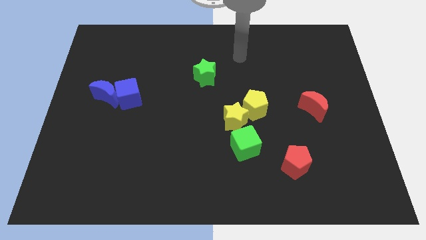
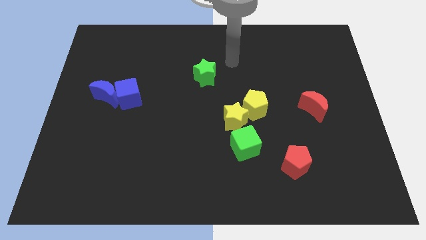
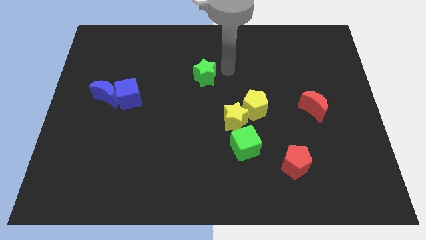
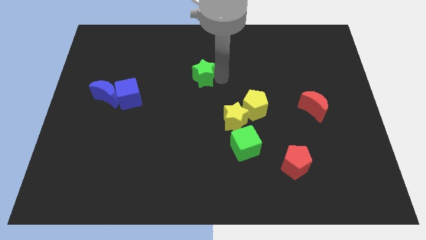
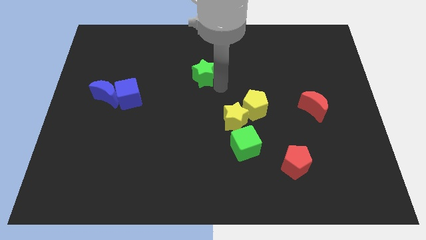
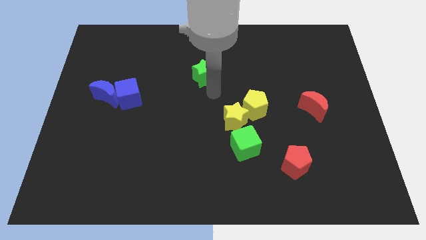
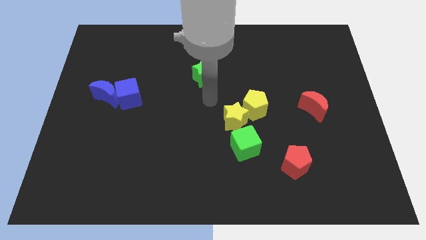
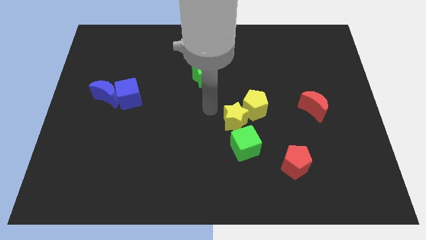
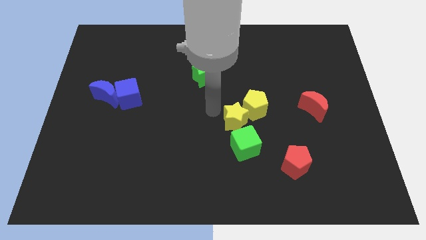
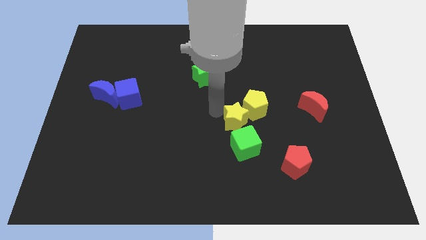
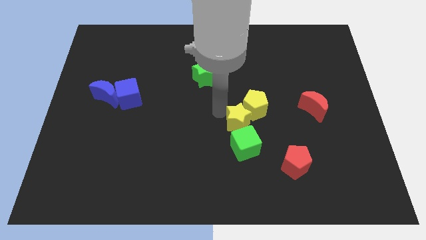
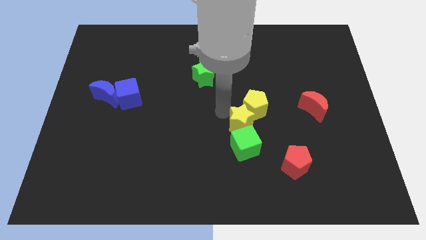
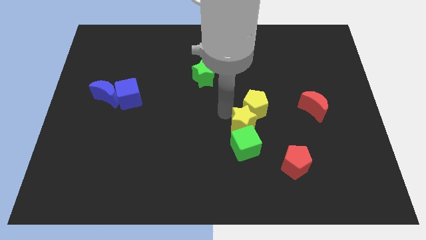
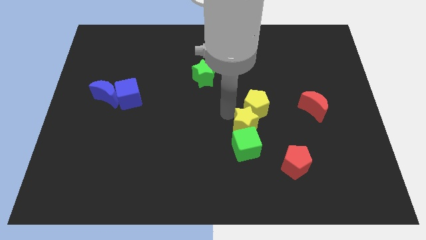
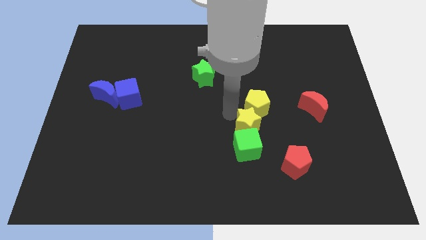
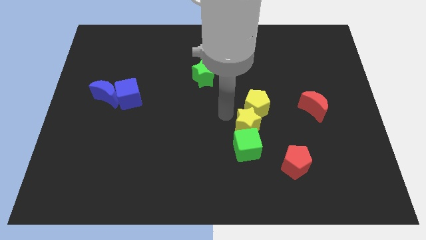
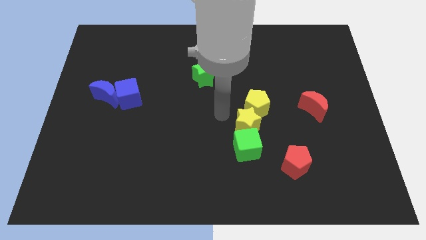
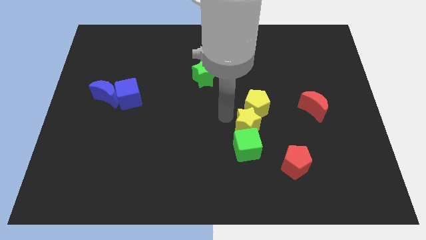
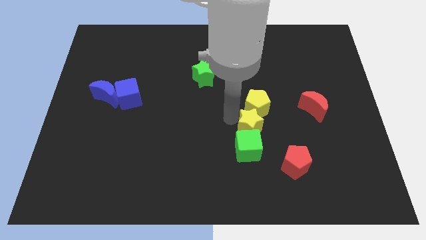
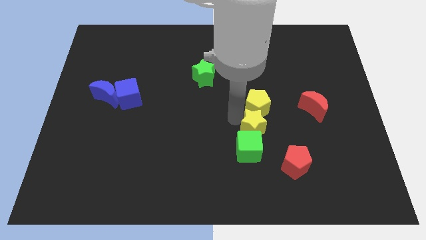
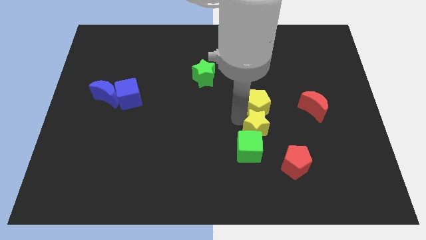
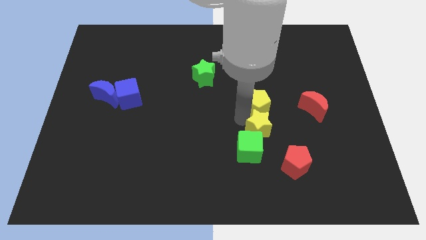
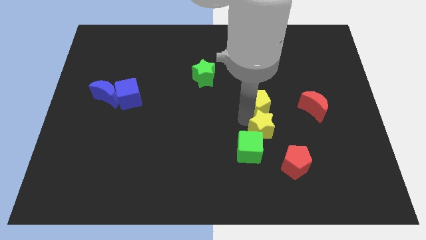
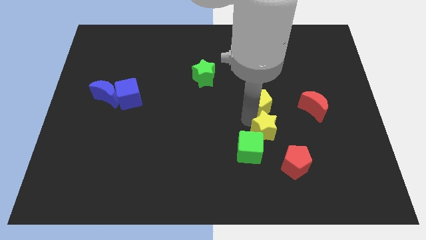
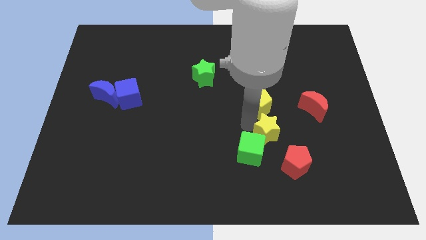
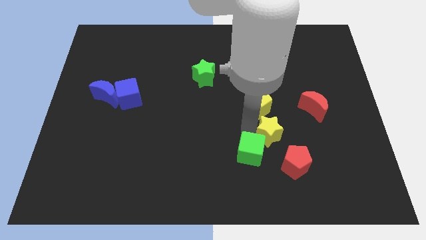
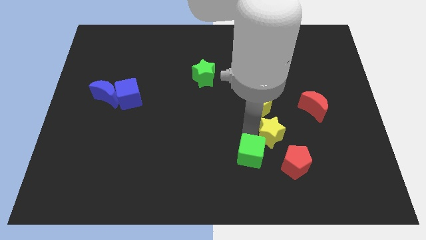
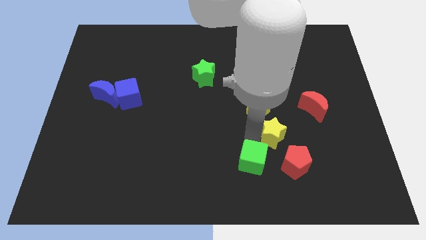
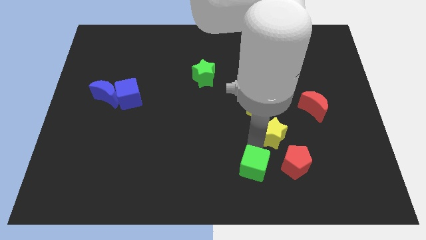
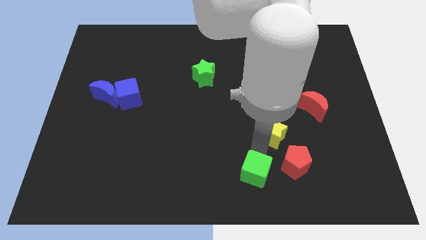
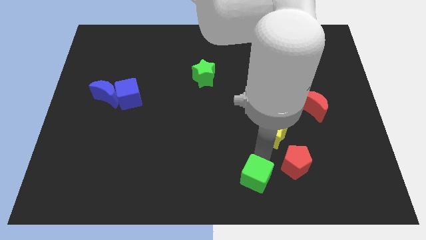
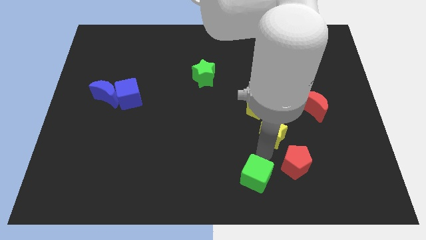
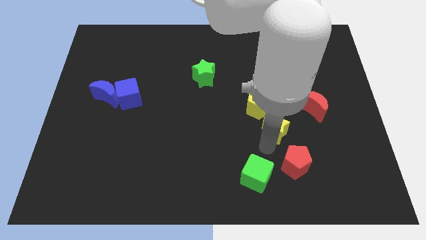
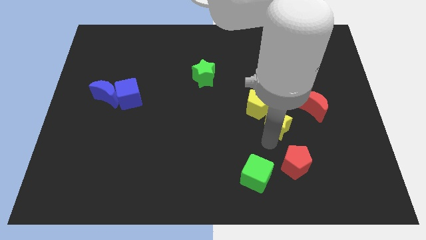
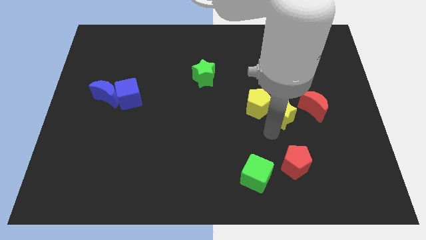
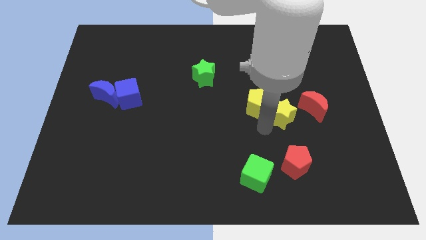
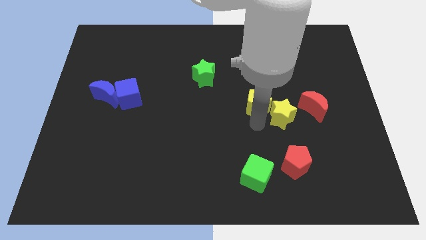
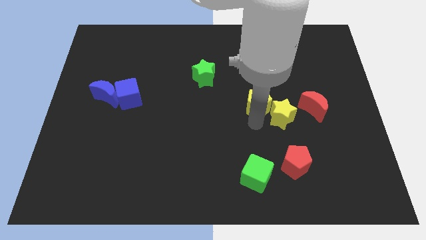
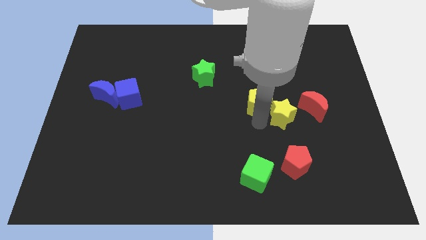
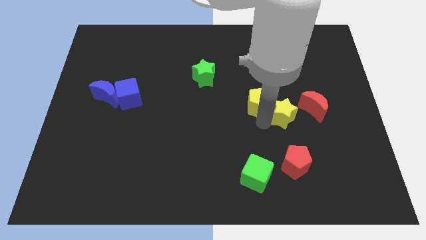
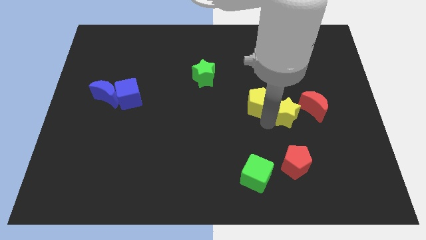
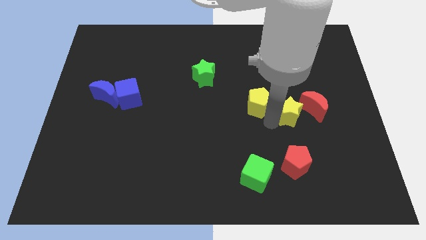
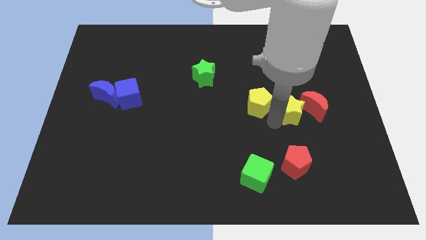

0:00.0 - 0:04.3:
move the yellow star next to the red moon

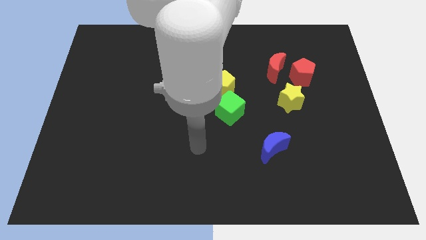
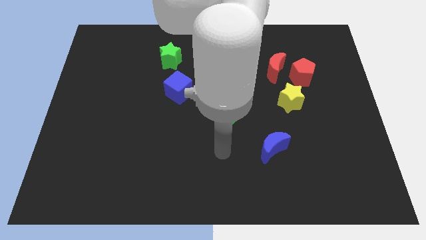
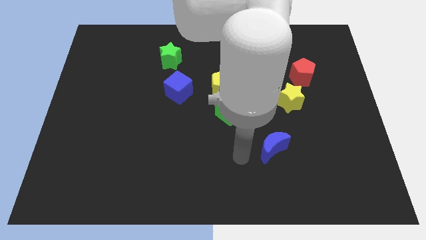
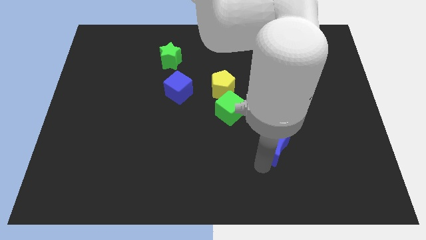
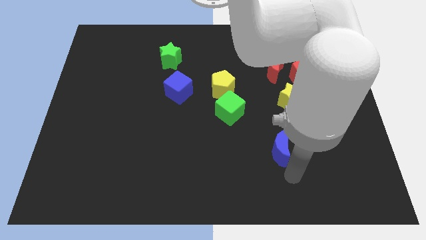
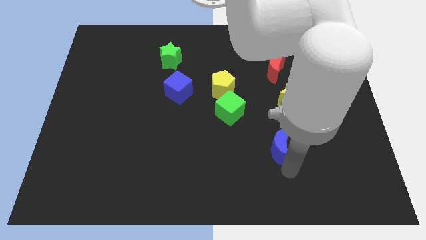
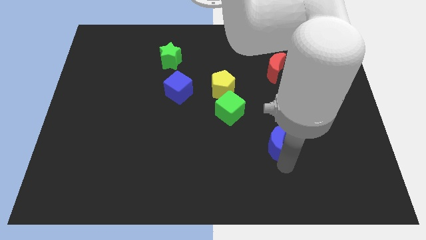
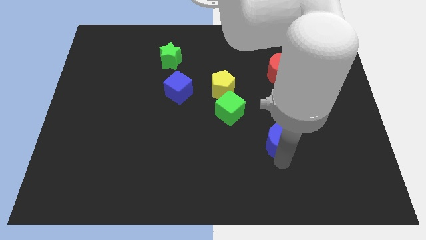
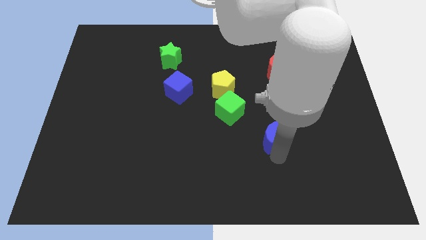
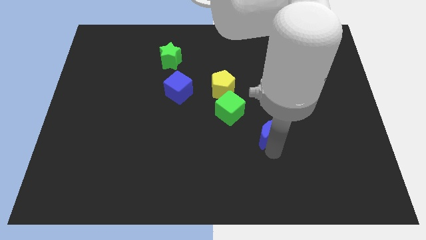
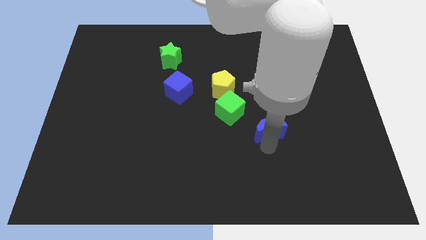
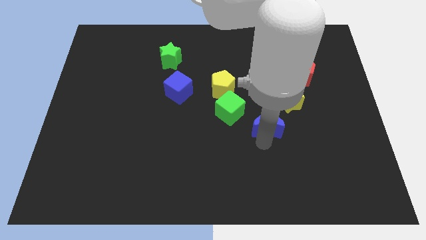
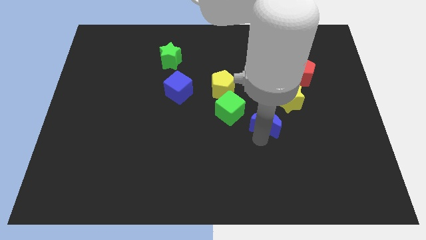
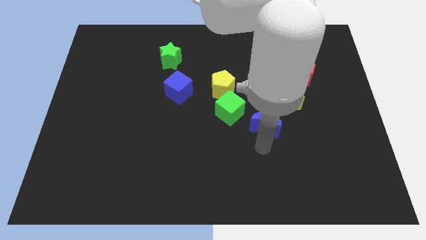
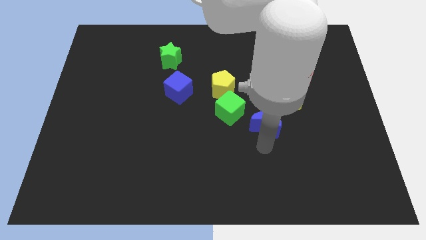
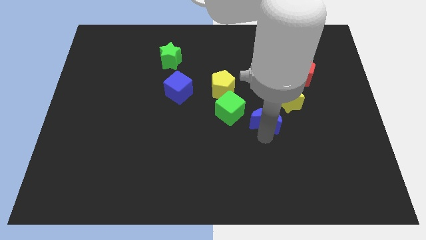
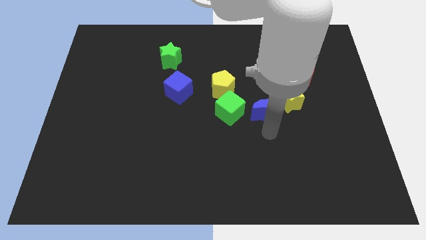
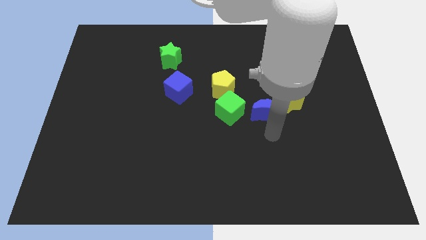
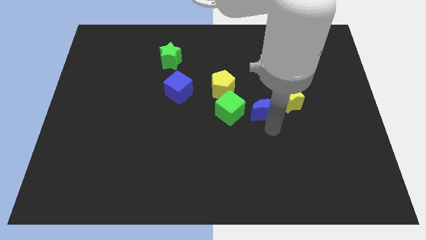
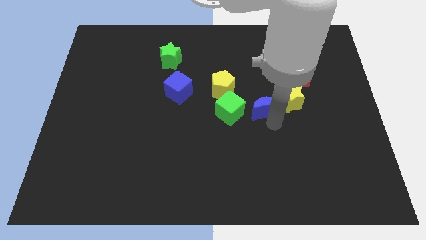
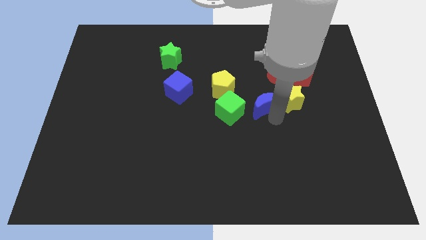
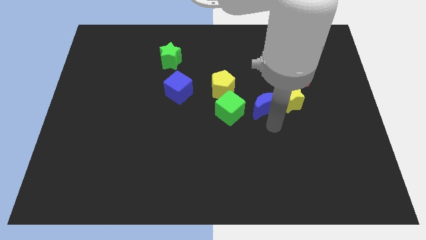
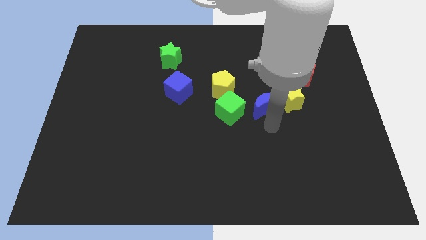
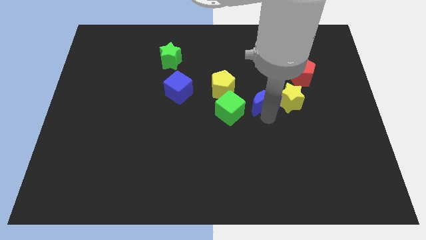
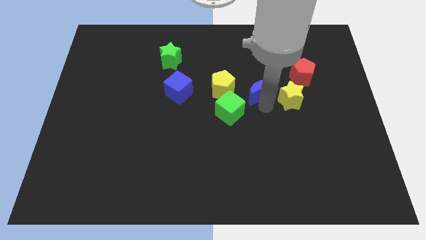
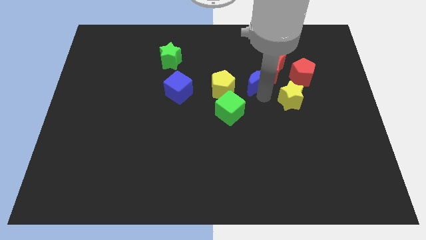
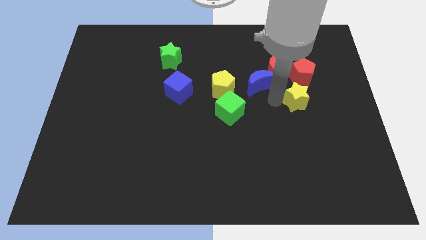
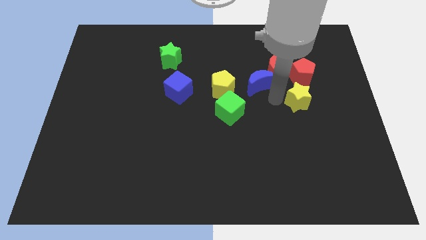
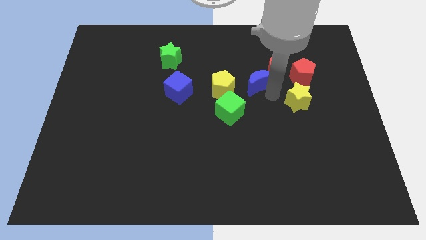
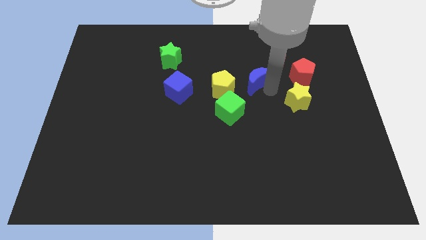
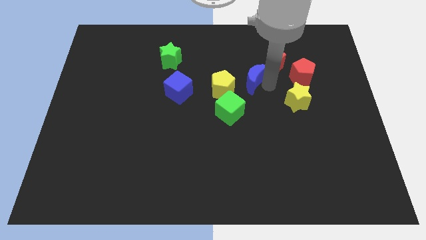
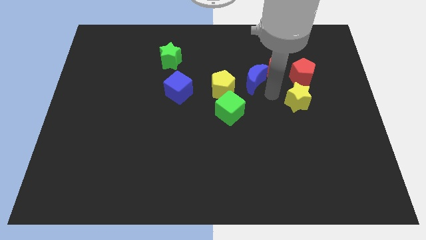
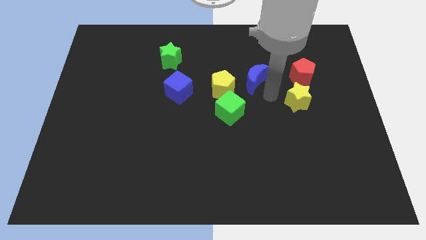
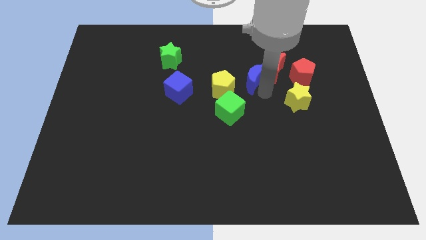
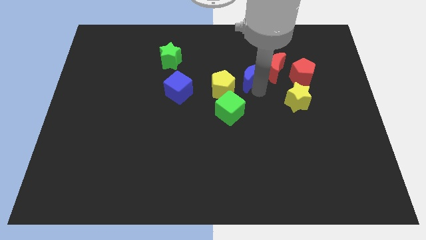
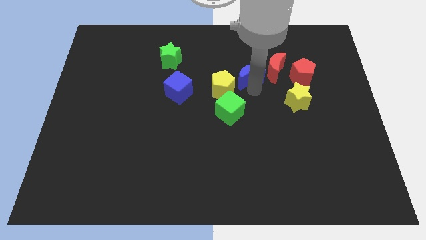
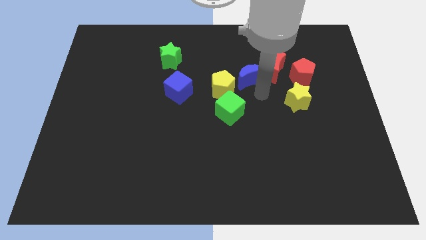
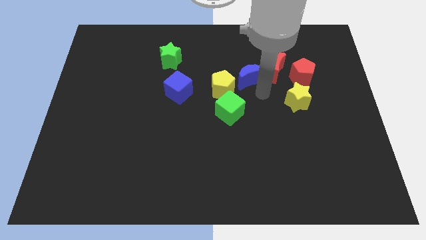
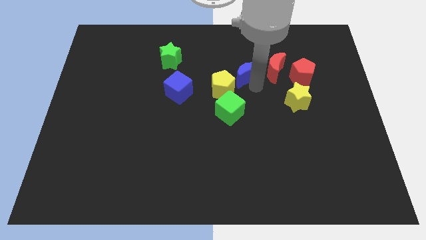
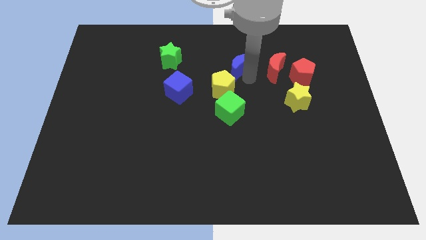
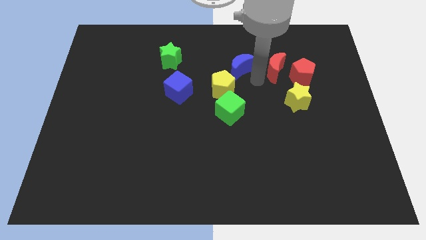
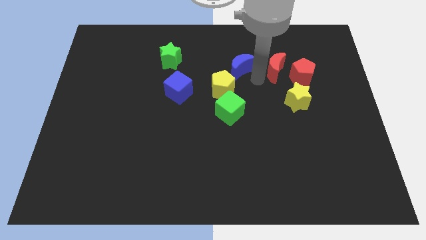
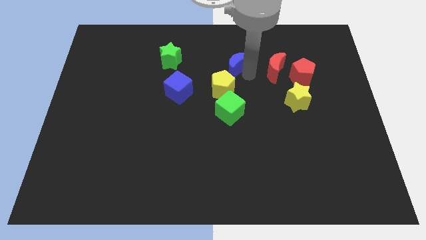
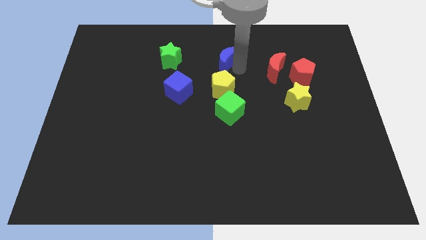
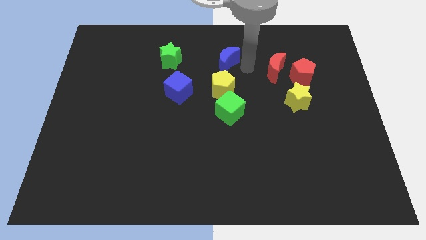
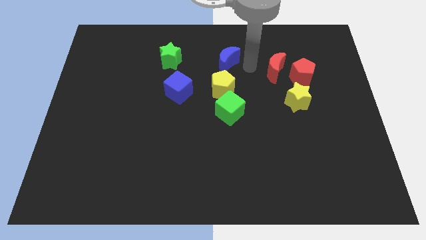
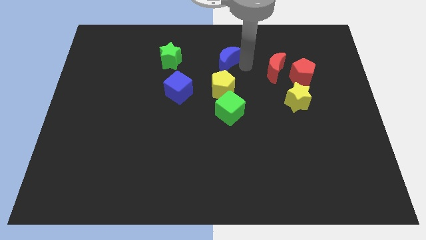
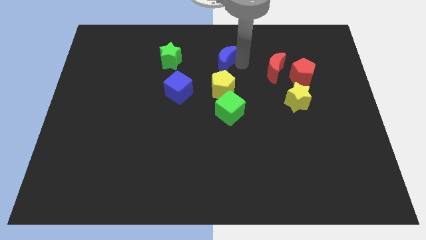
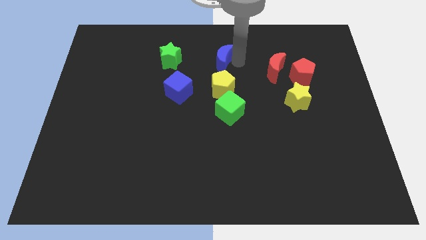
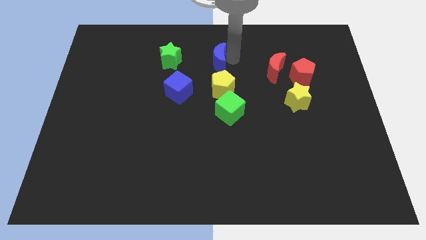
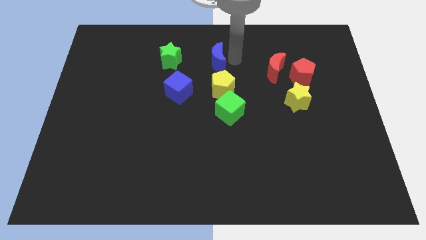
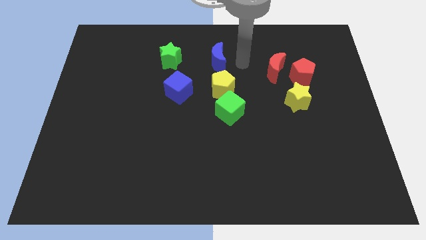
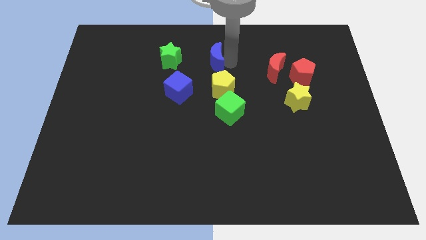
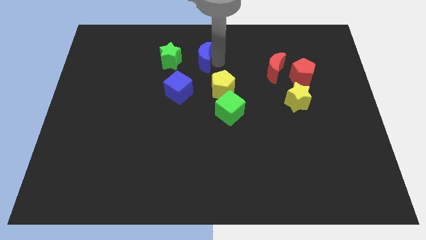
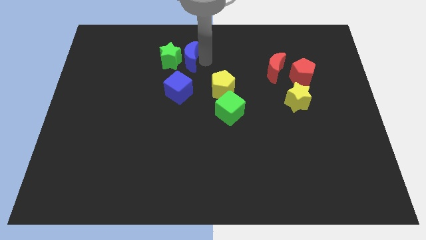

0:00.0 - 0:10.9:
push the blue moon to the green star
